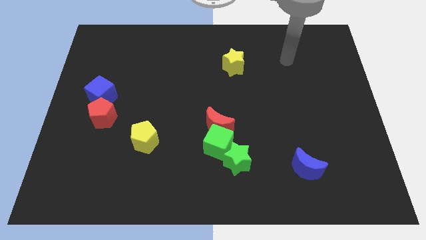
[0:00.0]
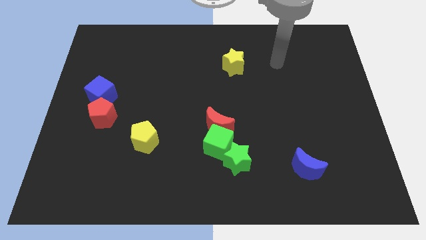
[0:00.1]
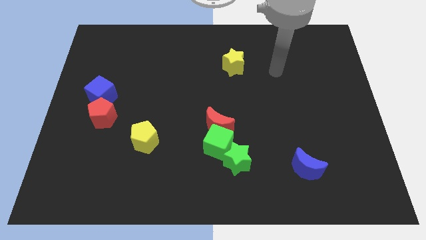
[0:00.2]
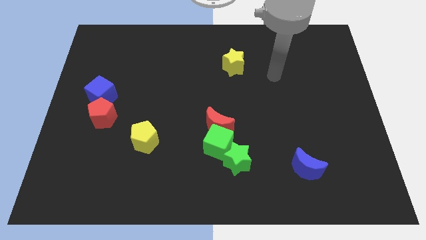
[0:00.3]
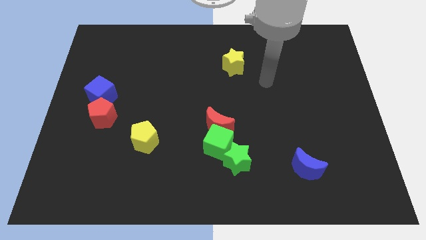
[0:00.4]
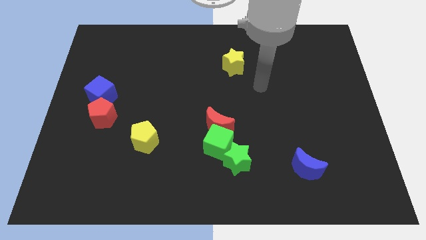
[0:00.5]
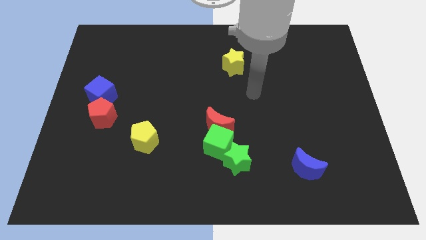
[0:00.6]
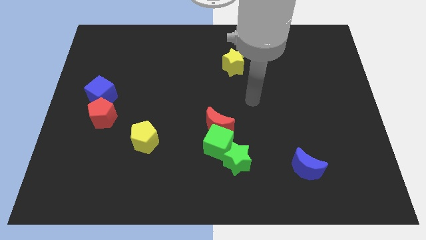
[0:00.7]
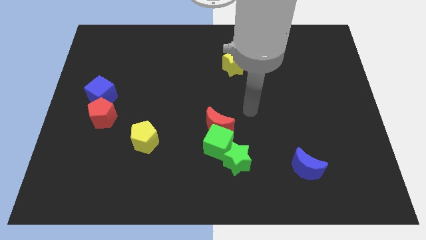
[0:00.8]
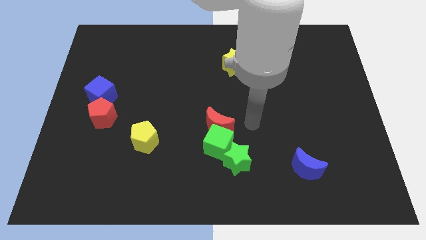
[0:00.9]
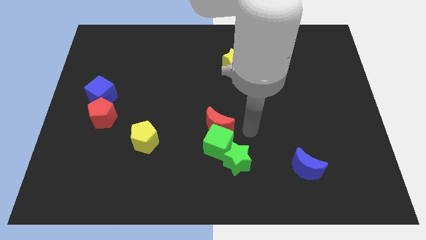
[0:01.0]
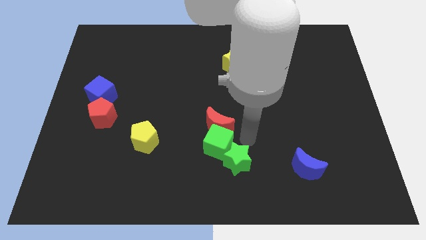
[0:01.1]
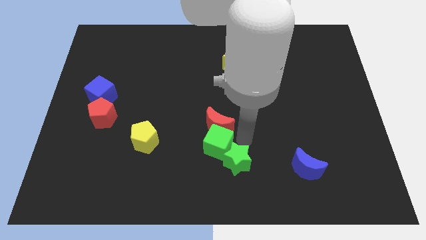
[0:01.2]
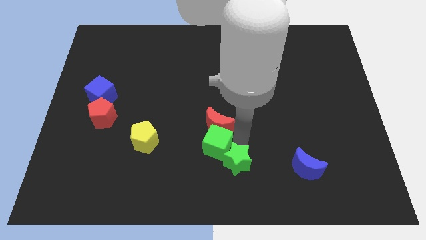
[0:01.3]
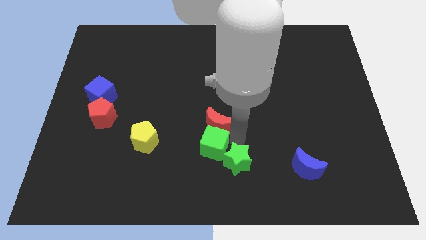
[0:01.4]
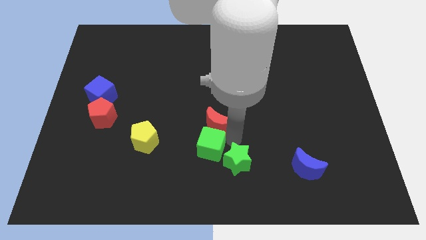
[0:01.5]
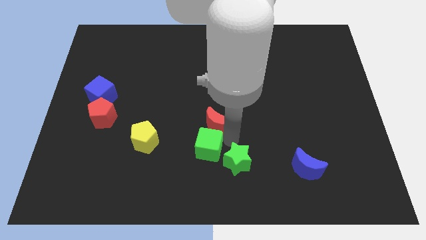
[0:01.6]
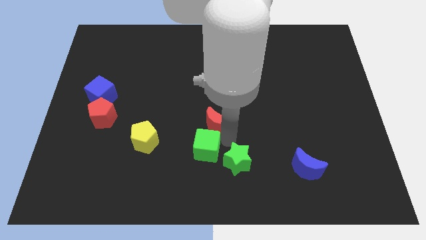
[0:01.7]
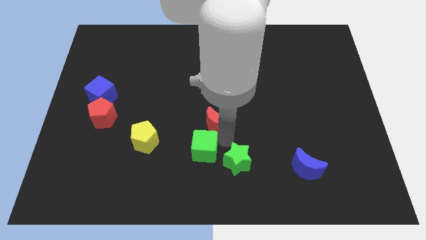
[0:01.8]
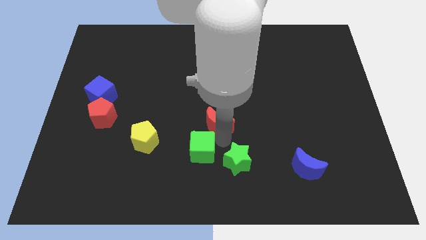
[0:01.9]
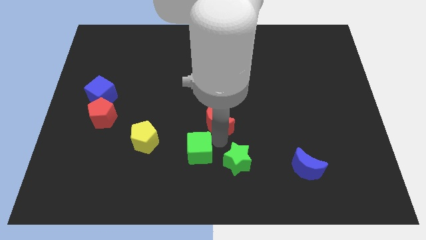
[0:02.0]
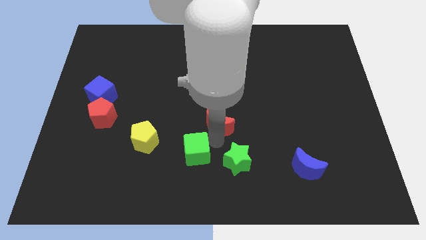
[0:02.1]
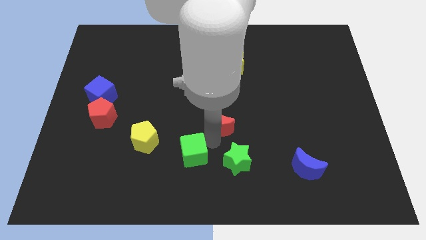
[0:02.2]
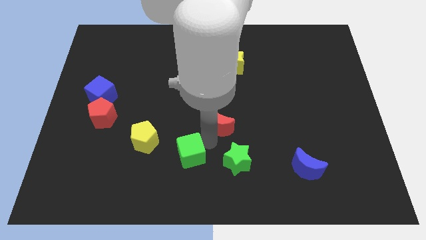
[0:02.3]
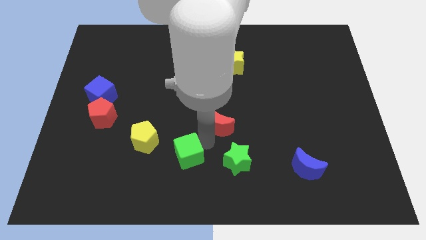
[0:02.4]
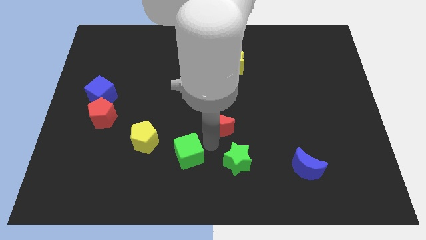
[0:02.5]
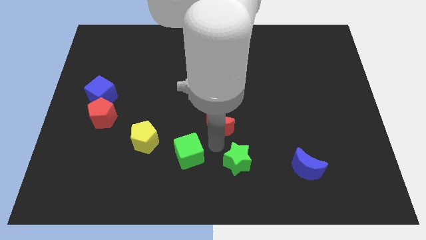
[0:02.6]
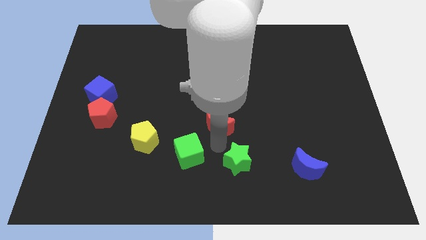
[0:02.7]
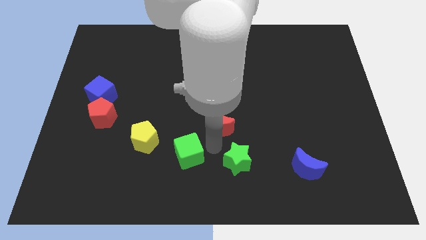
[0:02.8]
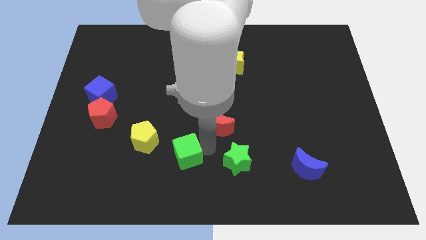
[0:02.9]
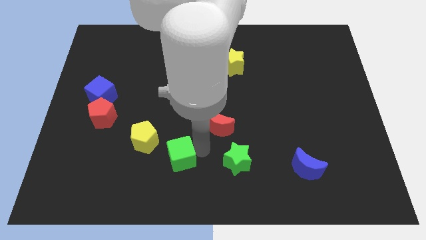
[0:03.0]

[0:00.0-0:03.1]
move the green cube away from the red moon and green star

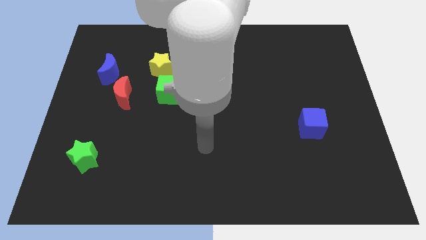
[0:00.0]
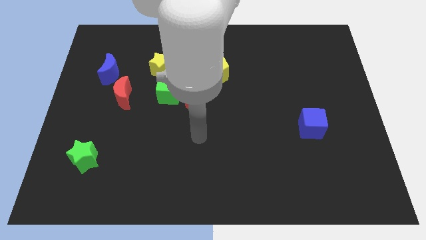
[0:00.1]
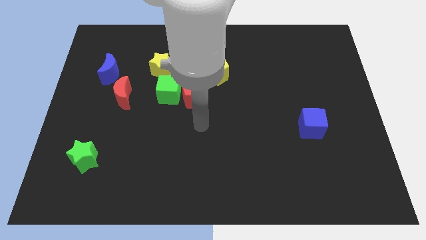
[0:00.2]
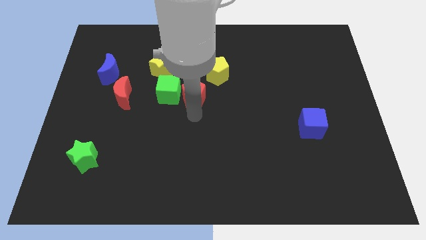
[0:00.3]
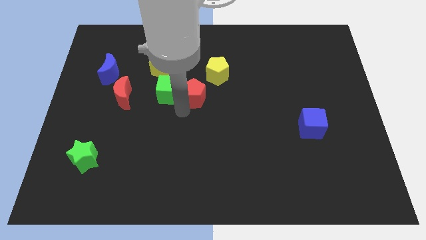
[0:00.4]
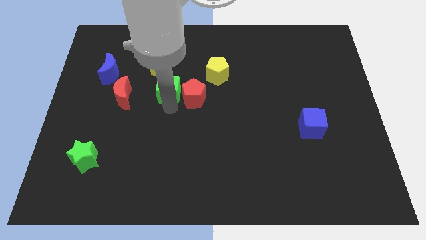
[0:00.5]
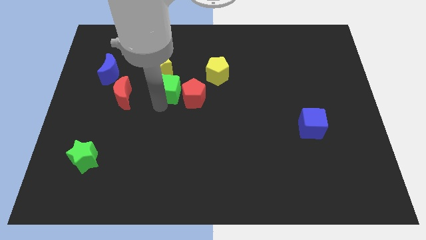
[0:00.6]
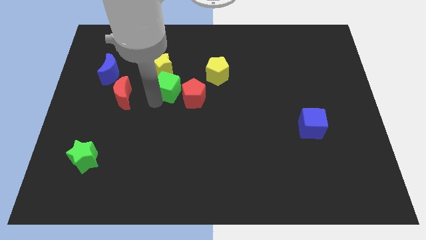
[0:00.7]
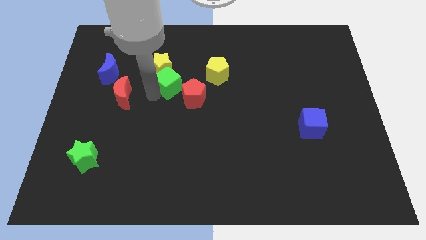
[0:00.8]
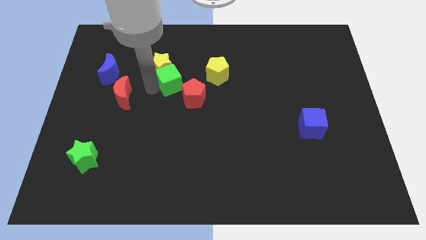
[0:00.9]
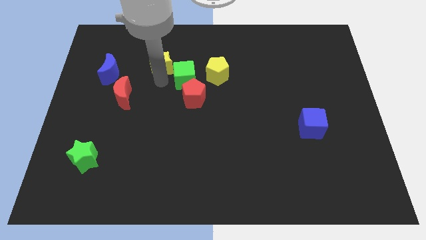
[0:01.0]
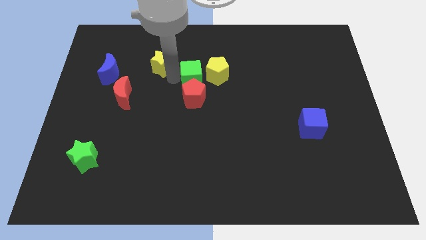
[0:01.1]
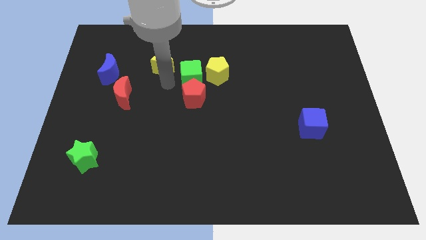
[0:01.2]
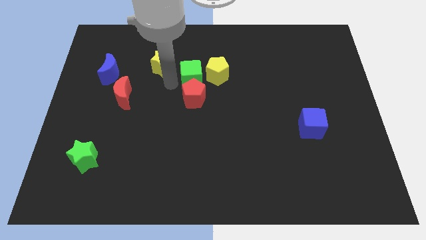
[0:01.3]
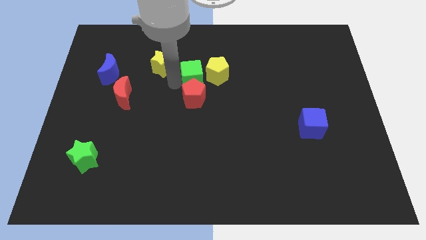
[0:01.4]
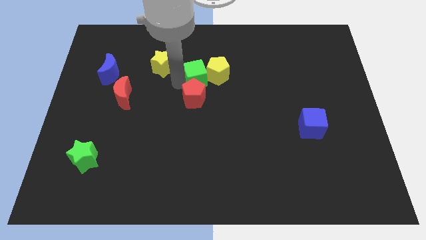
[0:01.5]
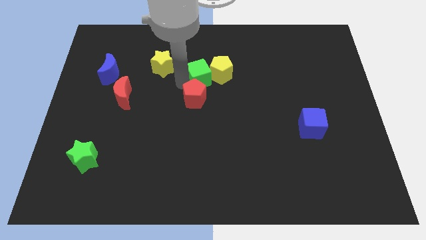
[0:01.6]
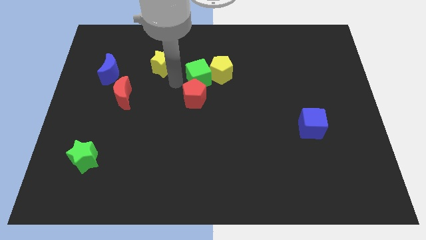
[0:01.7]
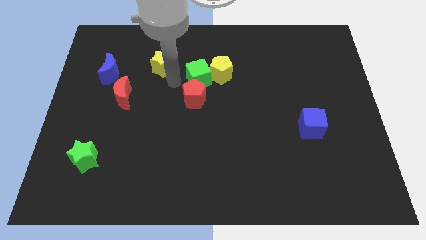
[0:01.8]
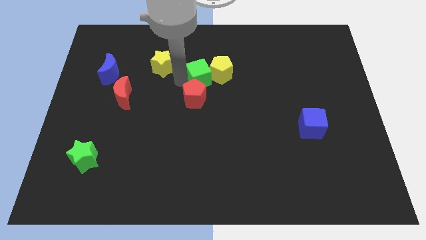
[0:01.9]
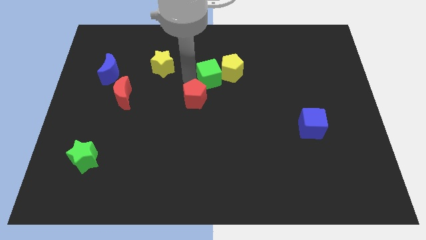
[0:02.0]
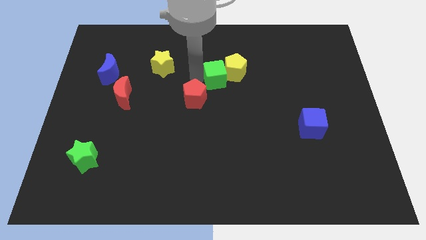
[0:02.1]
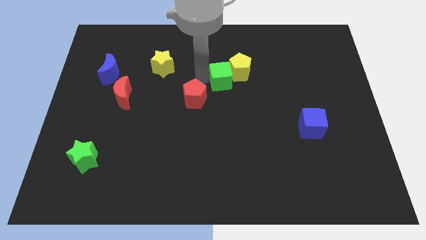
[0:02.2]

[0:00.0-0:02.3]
pull the green cube apart from the red pentagon and yellow star

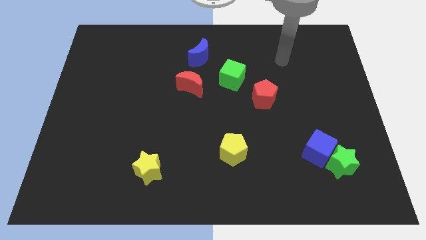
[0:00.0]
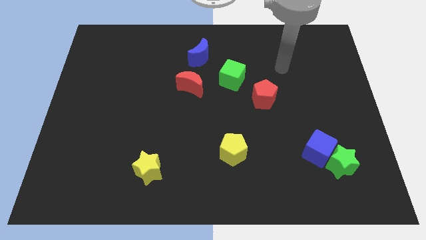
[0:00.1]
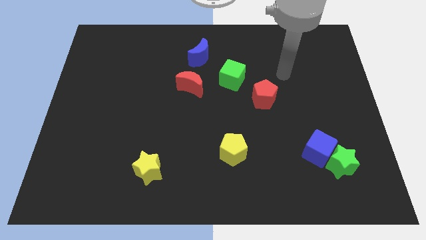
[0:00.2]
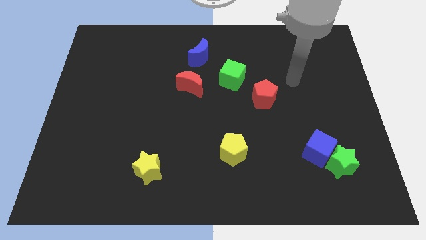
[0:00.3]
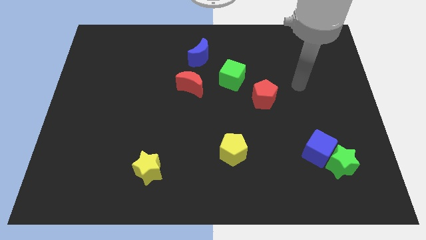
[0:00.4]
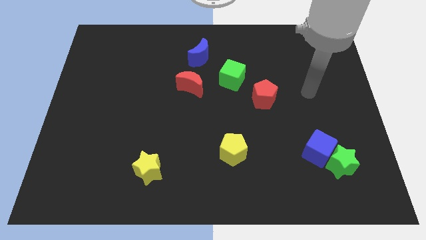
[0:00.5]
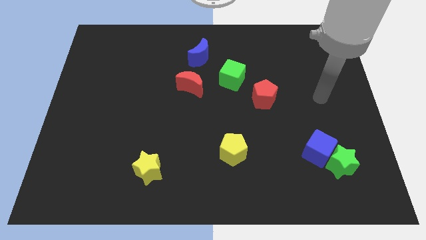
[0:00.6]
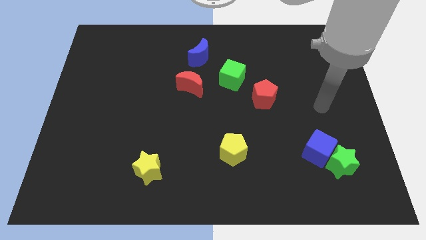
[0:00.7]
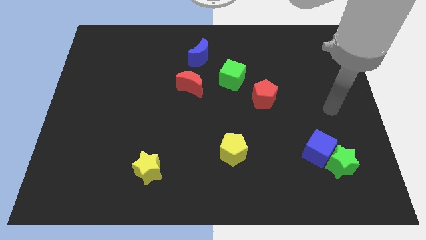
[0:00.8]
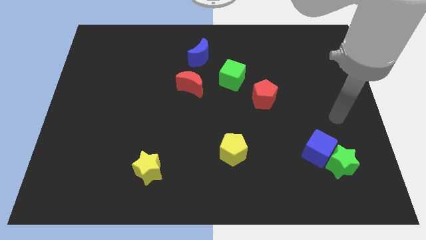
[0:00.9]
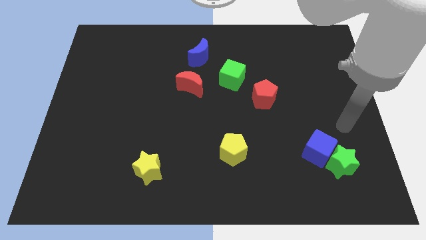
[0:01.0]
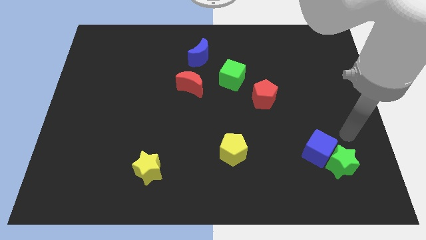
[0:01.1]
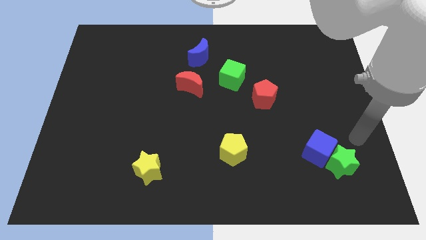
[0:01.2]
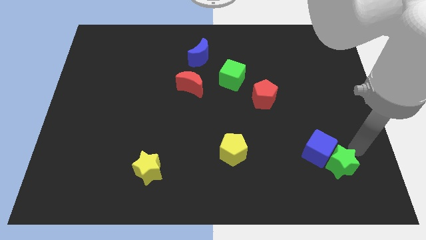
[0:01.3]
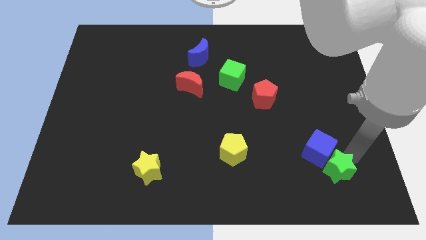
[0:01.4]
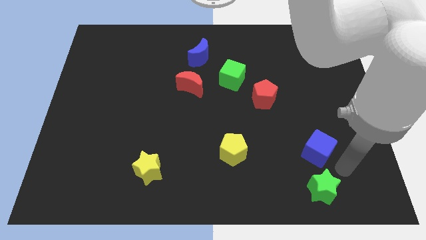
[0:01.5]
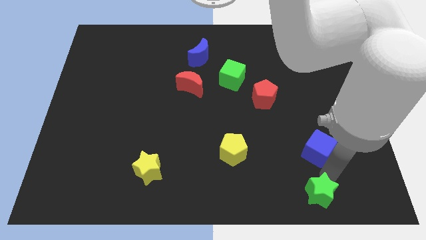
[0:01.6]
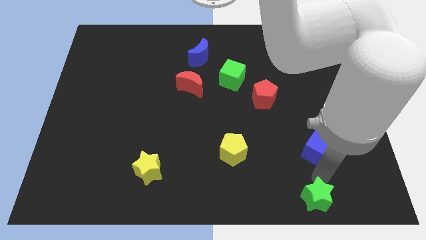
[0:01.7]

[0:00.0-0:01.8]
separate the blue cube from the green star

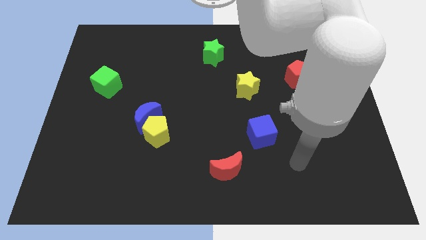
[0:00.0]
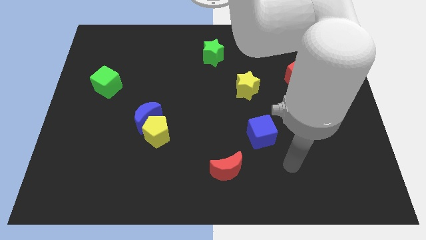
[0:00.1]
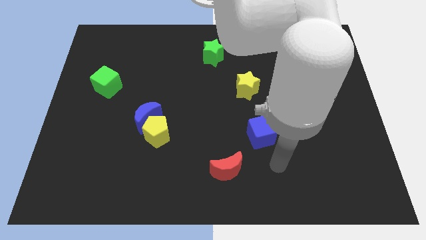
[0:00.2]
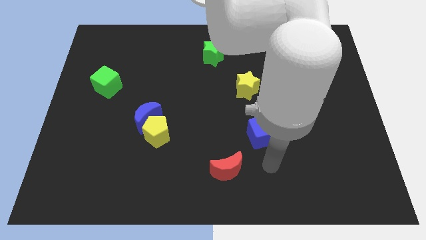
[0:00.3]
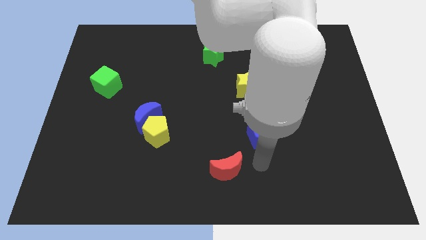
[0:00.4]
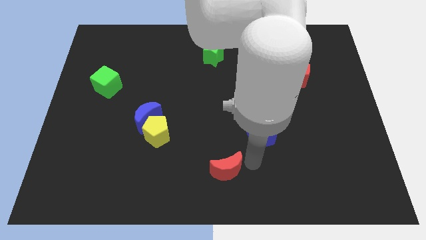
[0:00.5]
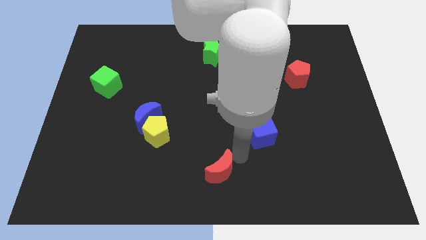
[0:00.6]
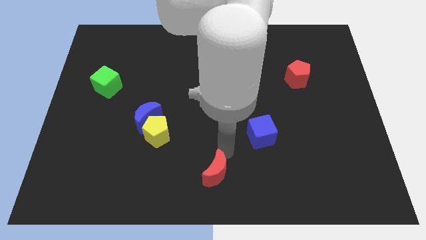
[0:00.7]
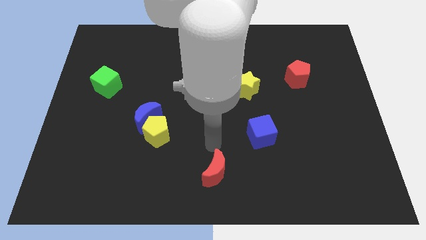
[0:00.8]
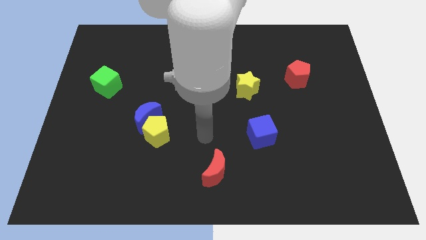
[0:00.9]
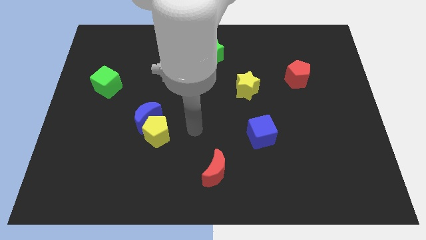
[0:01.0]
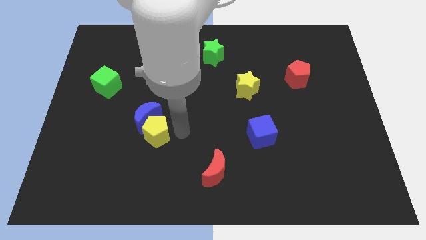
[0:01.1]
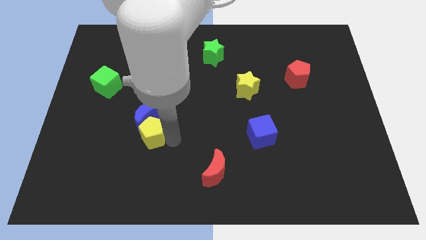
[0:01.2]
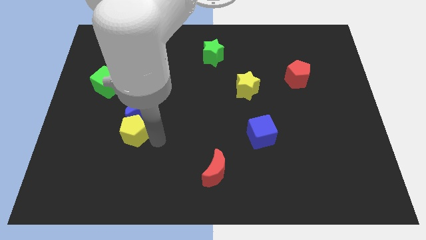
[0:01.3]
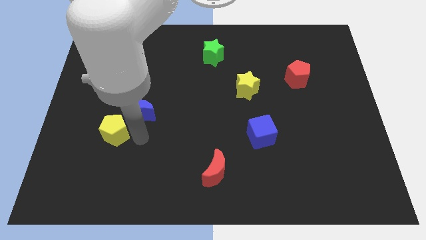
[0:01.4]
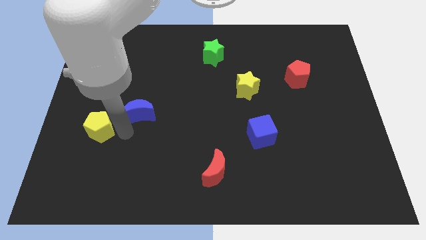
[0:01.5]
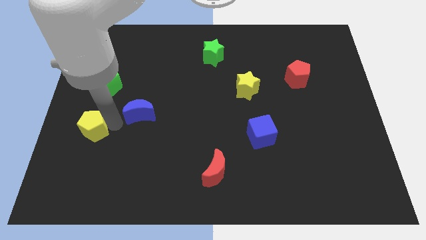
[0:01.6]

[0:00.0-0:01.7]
move the blue moon away from the yellow pentagon

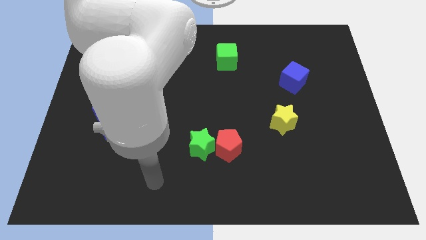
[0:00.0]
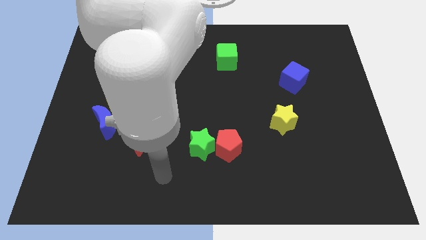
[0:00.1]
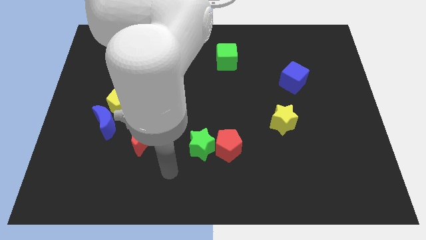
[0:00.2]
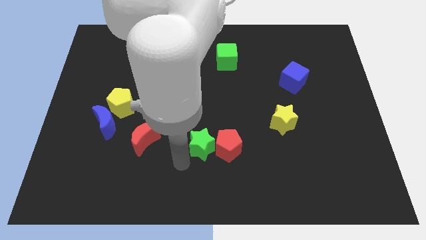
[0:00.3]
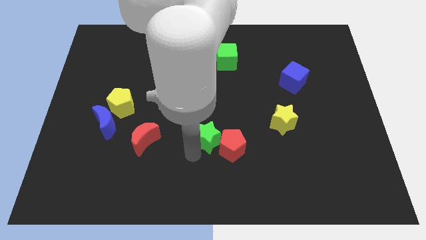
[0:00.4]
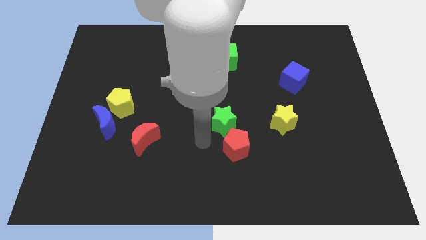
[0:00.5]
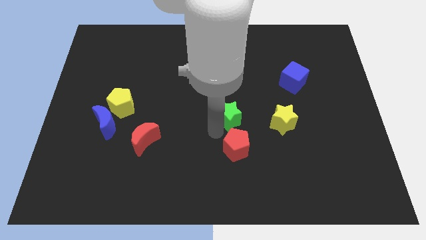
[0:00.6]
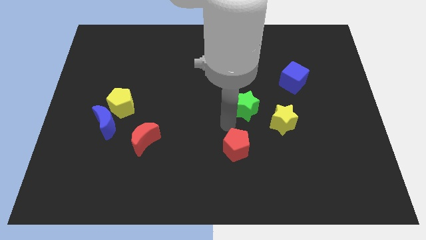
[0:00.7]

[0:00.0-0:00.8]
move the red pentagon away from the green star
